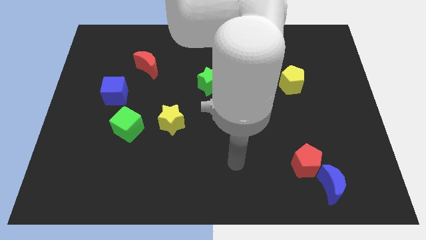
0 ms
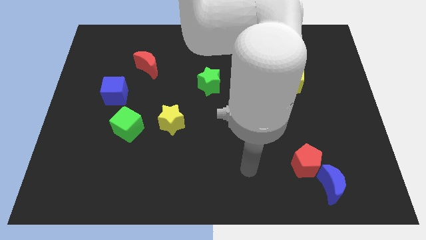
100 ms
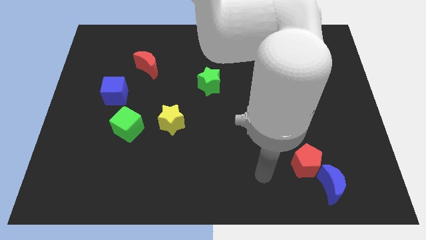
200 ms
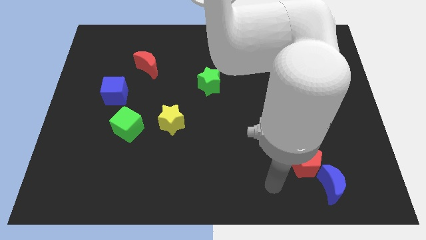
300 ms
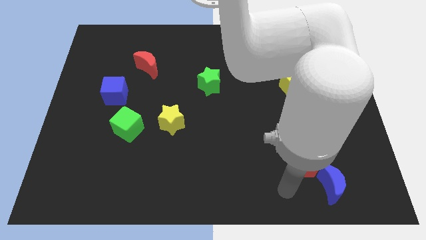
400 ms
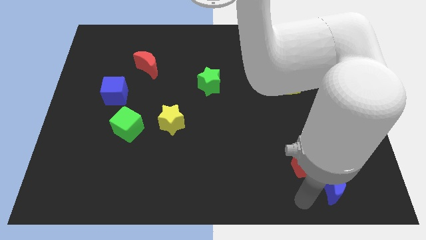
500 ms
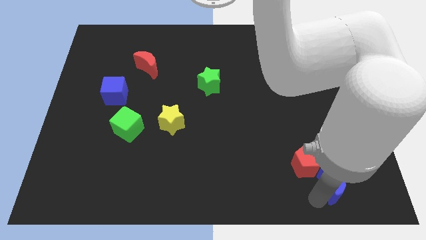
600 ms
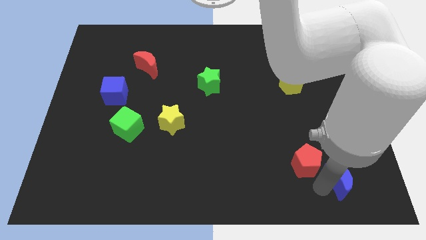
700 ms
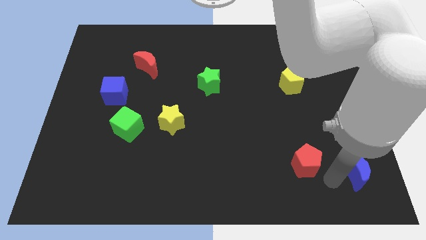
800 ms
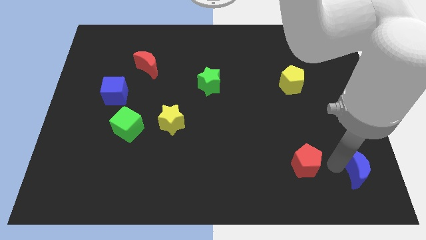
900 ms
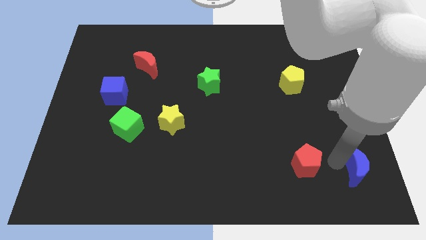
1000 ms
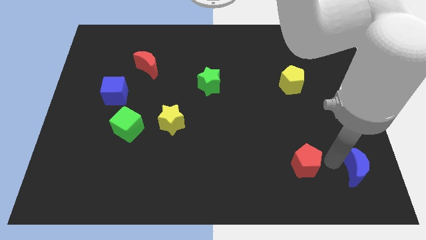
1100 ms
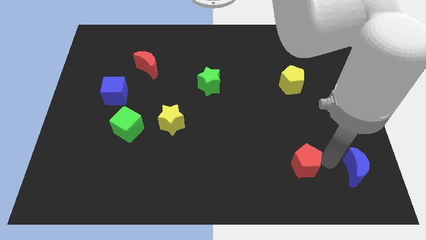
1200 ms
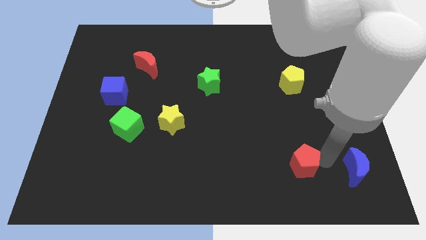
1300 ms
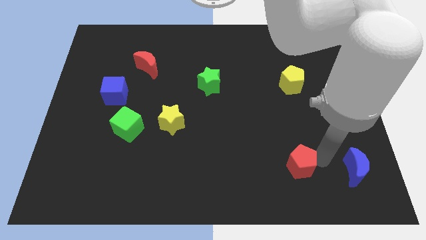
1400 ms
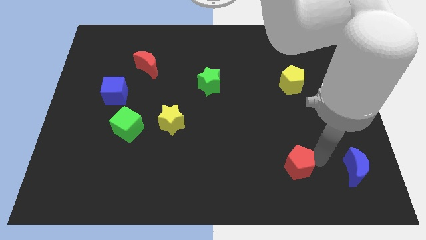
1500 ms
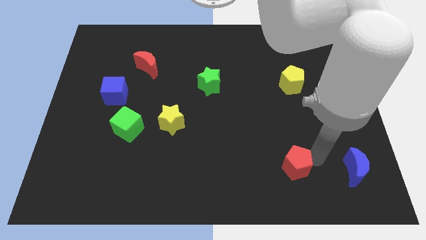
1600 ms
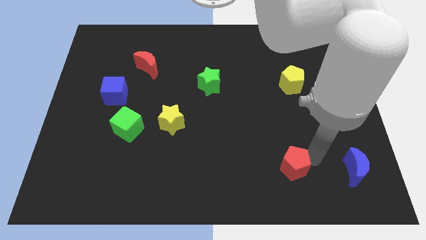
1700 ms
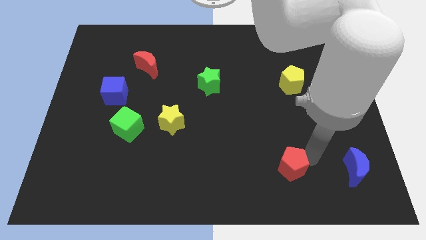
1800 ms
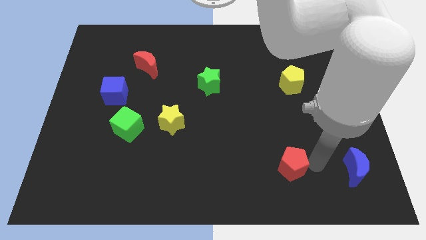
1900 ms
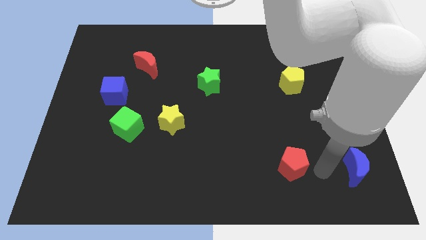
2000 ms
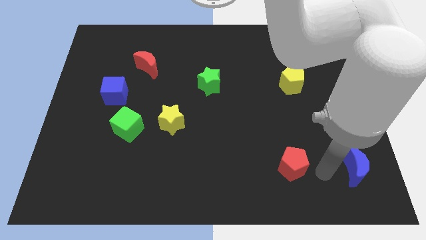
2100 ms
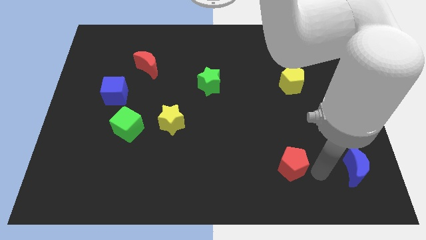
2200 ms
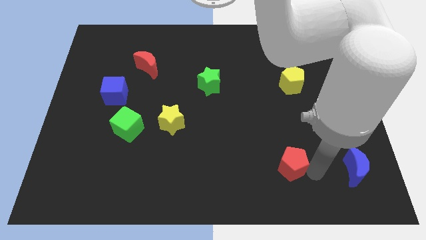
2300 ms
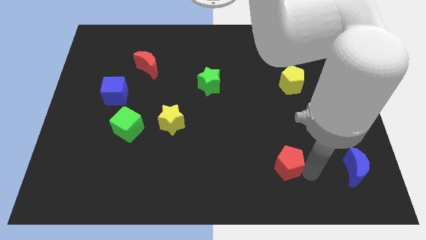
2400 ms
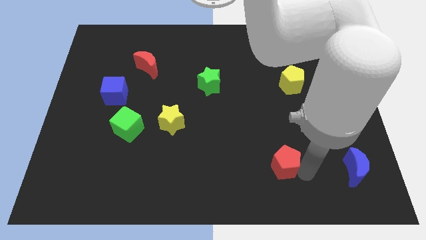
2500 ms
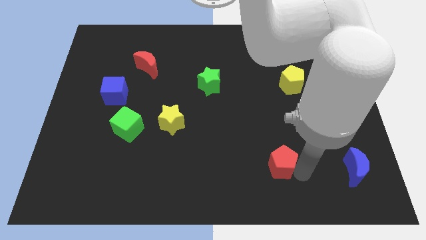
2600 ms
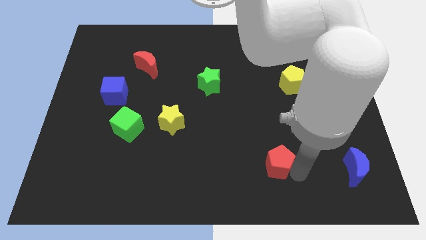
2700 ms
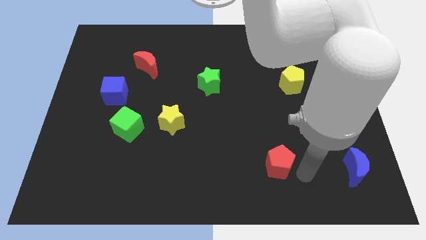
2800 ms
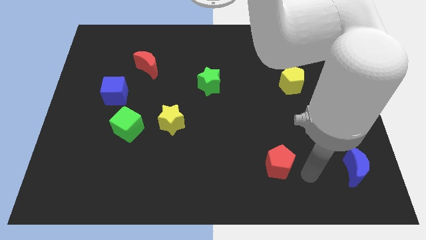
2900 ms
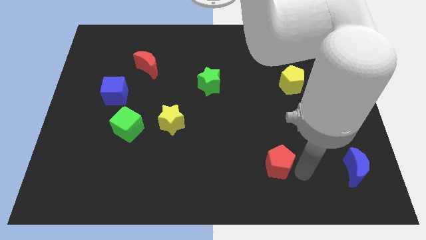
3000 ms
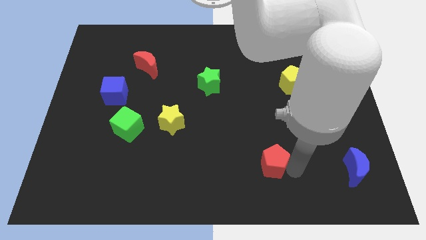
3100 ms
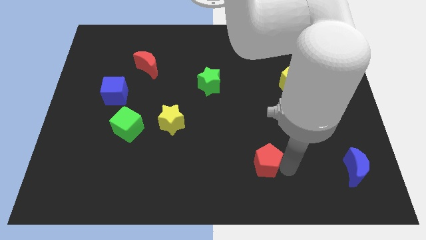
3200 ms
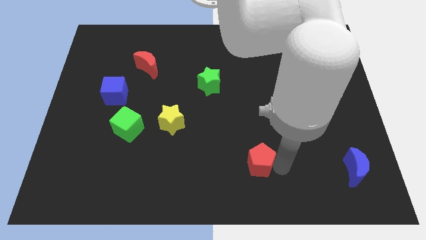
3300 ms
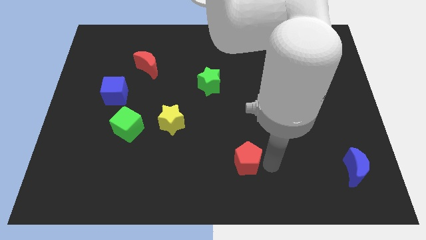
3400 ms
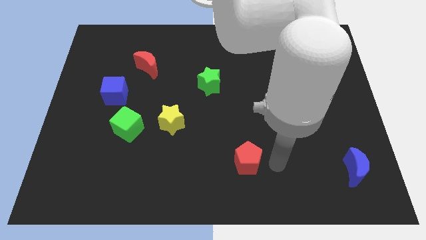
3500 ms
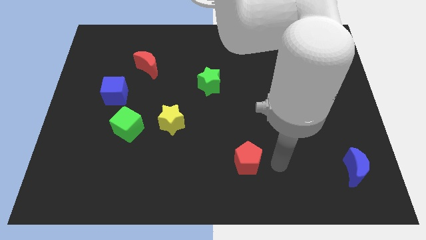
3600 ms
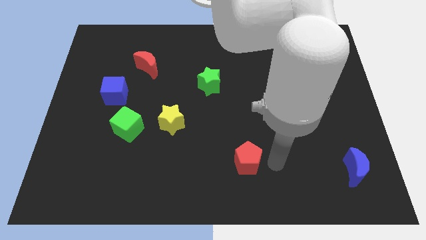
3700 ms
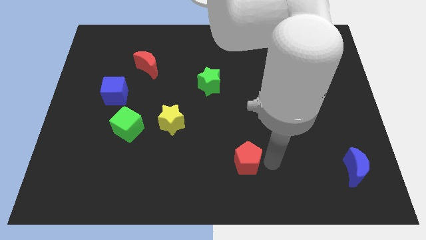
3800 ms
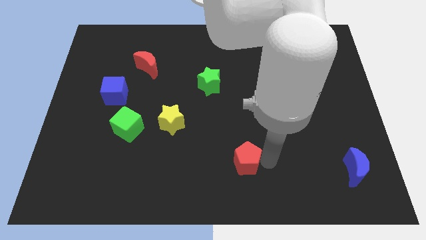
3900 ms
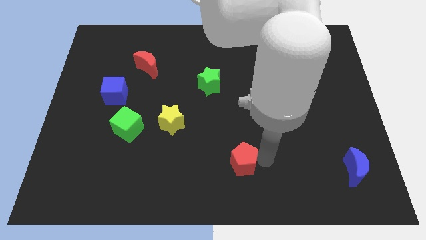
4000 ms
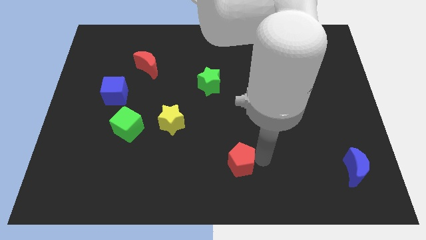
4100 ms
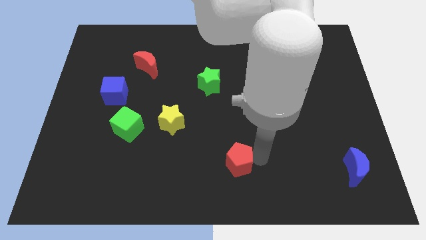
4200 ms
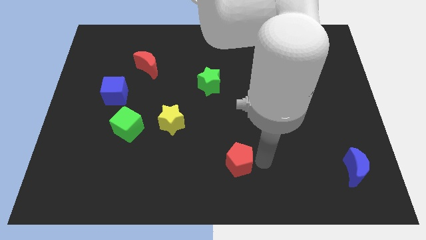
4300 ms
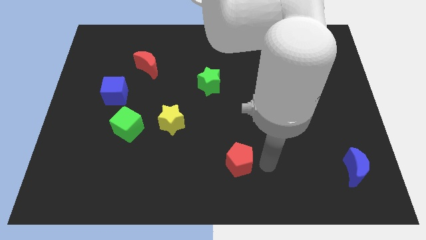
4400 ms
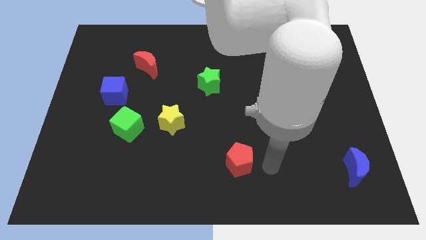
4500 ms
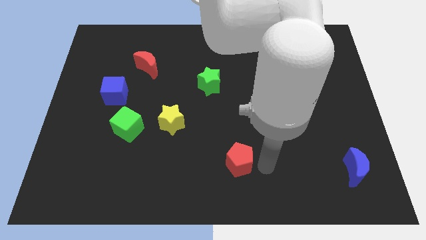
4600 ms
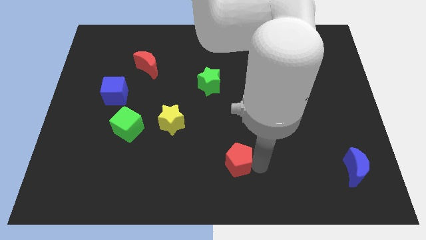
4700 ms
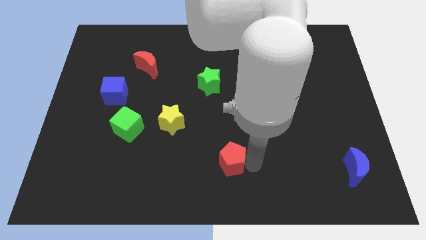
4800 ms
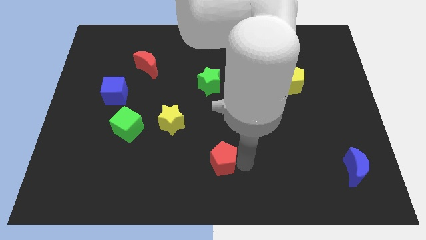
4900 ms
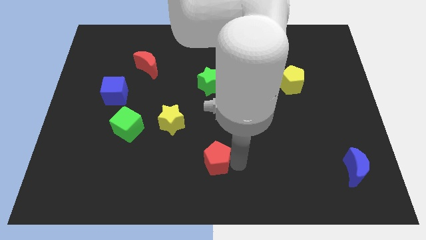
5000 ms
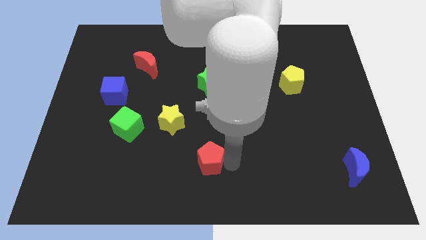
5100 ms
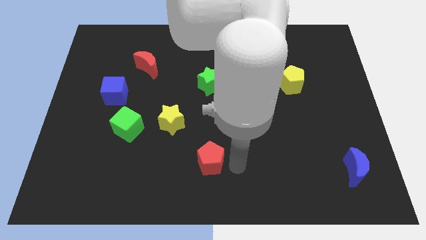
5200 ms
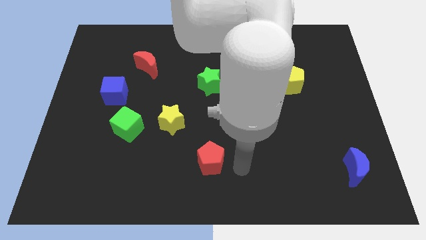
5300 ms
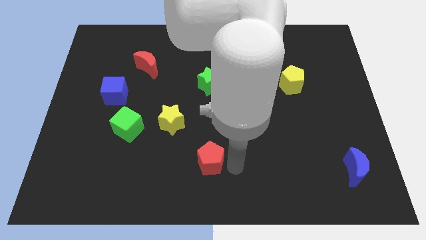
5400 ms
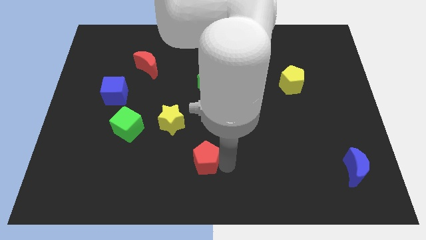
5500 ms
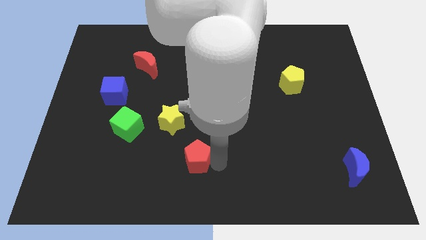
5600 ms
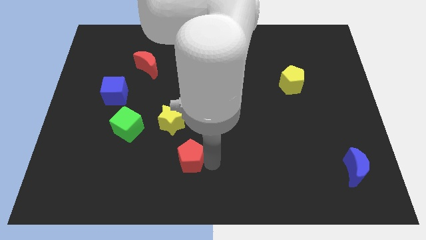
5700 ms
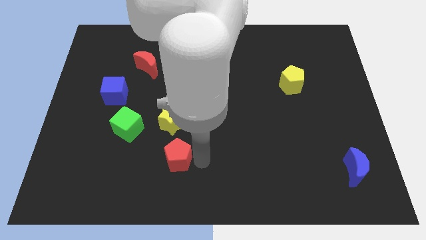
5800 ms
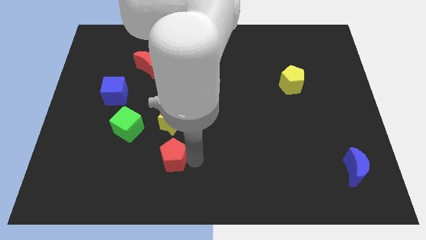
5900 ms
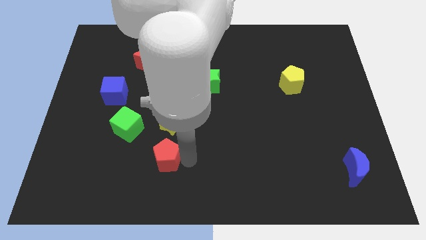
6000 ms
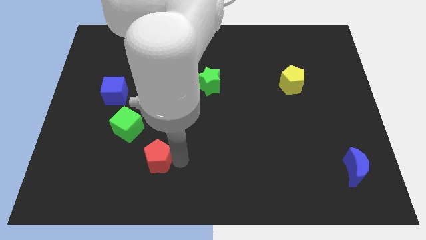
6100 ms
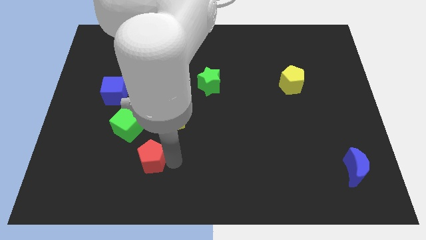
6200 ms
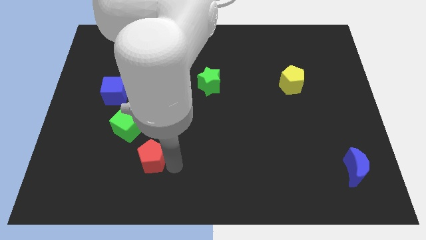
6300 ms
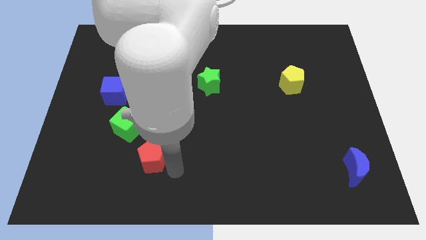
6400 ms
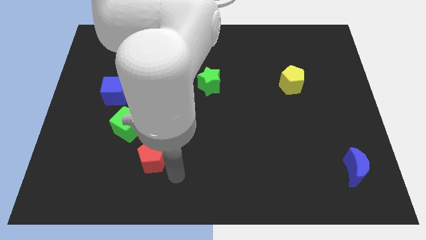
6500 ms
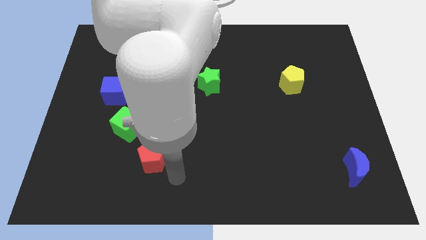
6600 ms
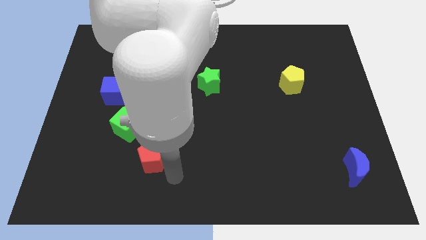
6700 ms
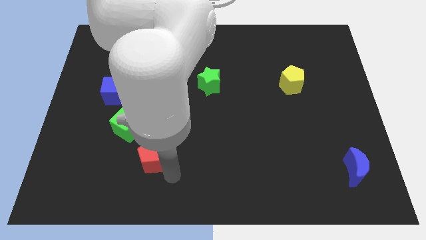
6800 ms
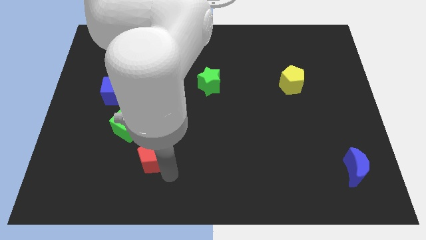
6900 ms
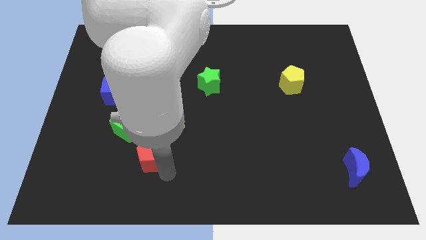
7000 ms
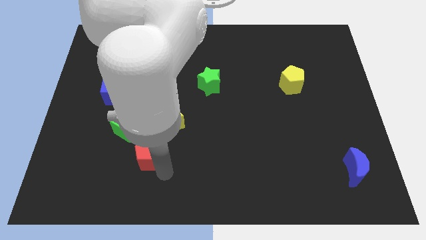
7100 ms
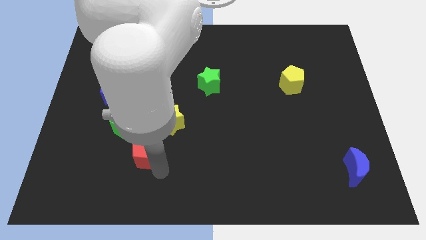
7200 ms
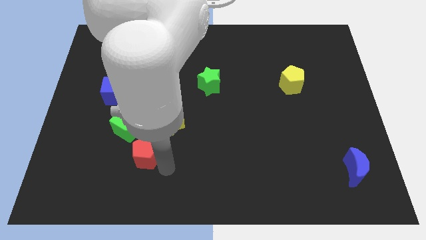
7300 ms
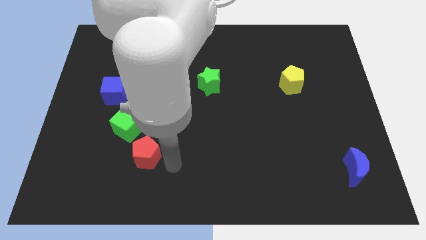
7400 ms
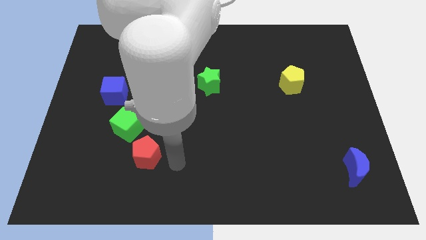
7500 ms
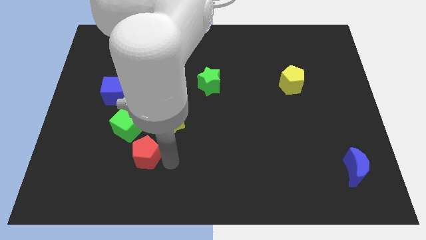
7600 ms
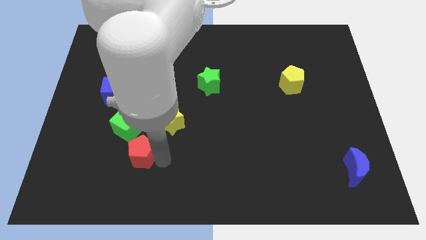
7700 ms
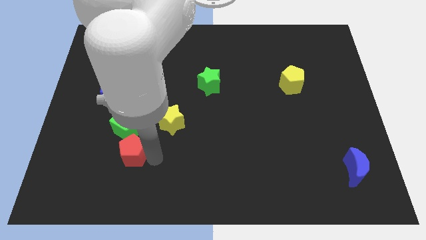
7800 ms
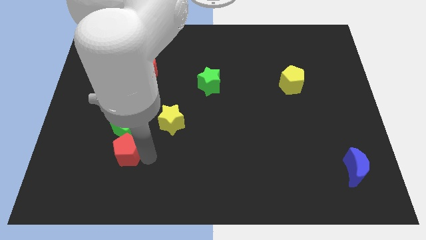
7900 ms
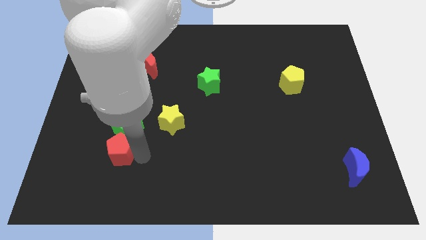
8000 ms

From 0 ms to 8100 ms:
move the red pentagon to the bottom left side of the green cube
